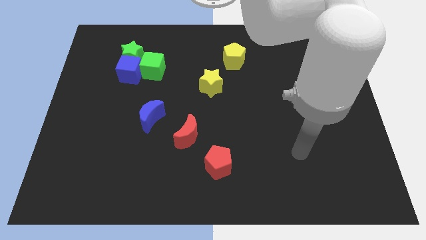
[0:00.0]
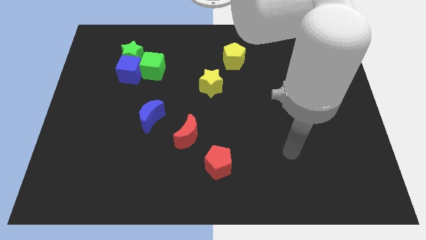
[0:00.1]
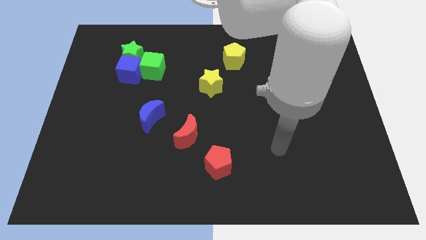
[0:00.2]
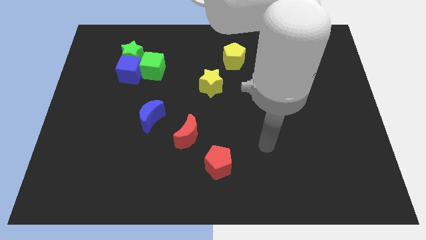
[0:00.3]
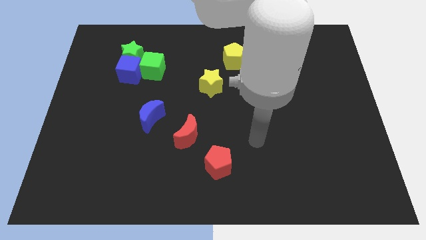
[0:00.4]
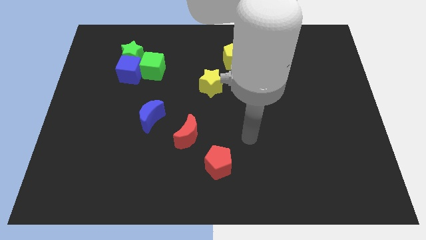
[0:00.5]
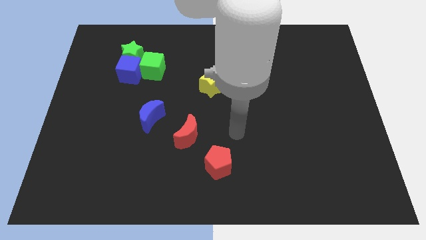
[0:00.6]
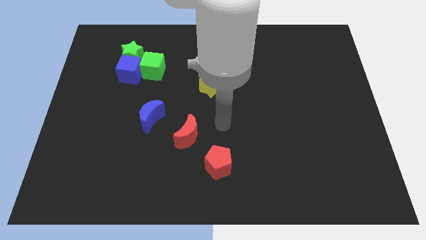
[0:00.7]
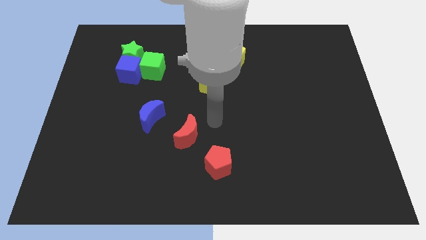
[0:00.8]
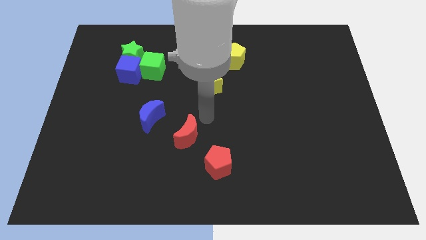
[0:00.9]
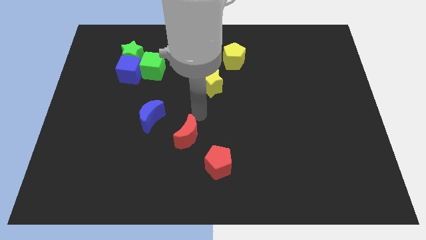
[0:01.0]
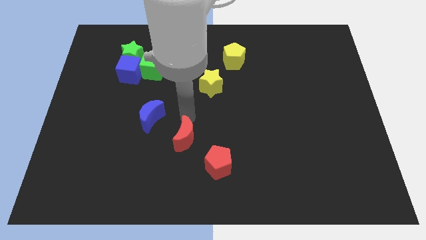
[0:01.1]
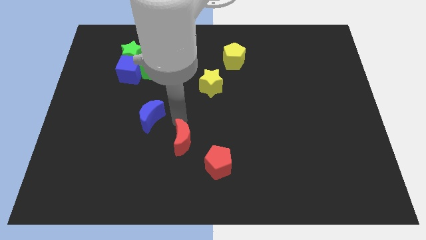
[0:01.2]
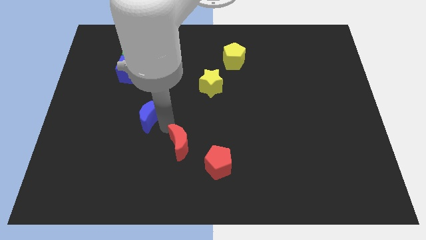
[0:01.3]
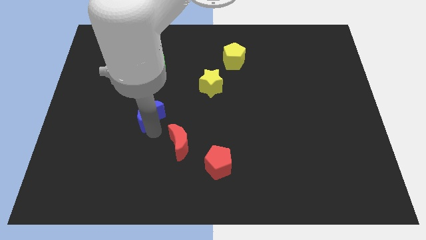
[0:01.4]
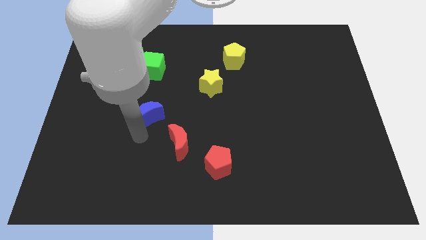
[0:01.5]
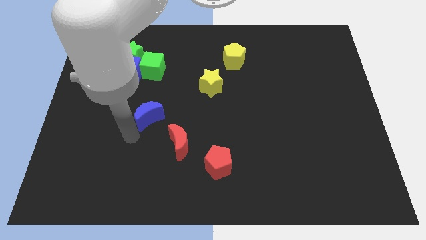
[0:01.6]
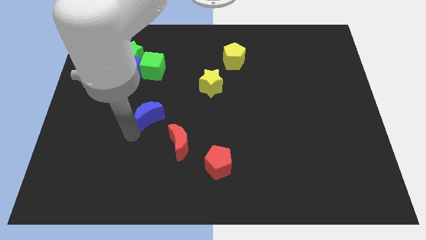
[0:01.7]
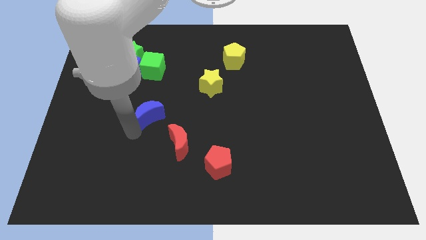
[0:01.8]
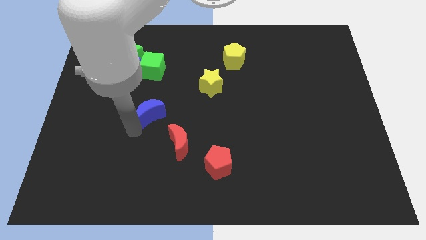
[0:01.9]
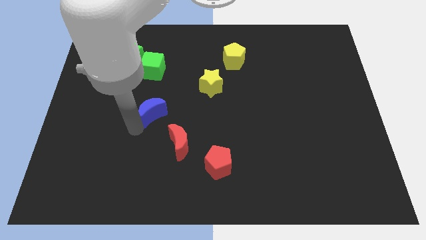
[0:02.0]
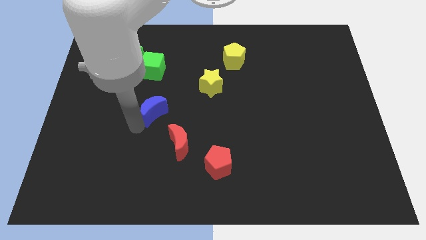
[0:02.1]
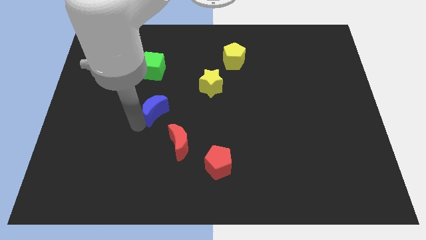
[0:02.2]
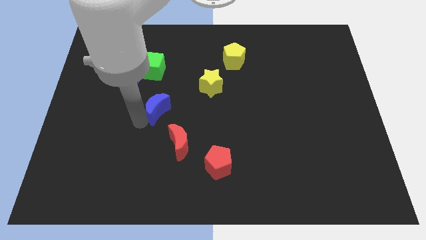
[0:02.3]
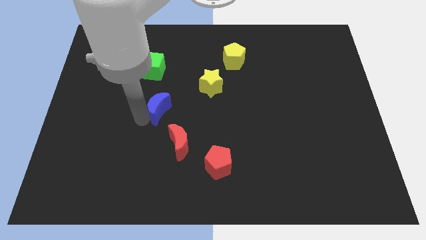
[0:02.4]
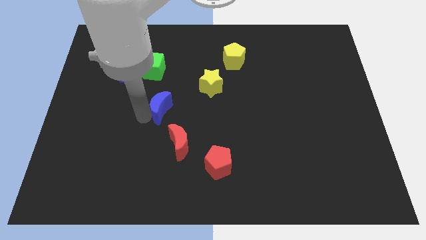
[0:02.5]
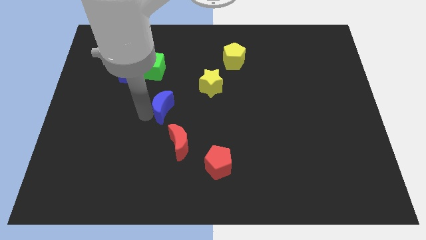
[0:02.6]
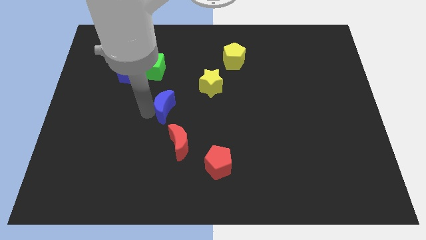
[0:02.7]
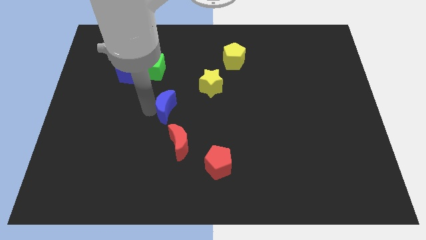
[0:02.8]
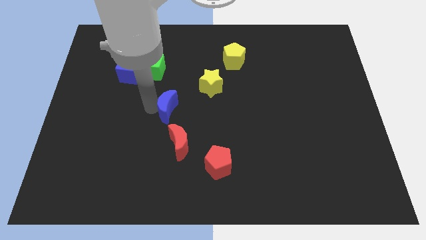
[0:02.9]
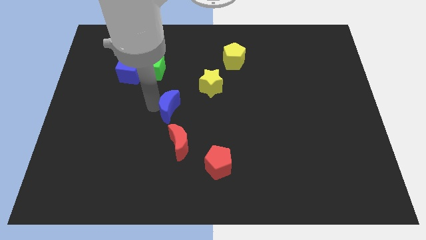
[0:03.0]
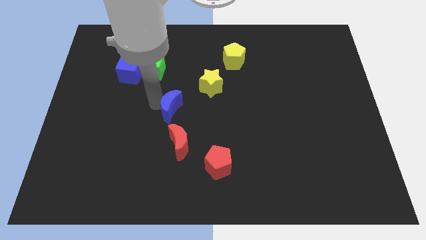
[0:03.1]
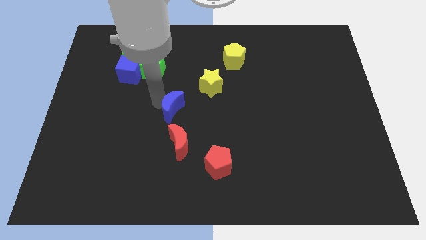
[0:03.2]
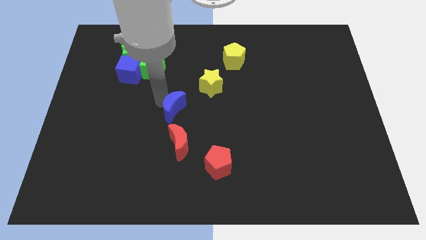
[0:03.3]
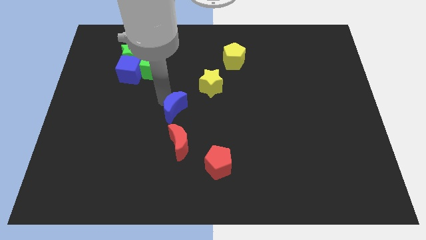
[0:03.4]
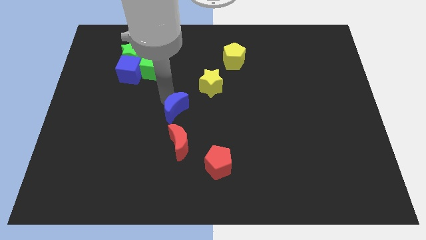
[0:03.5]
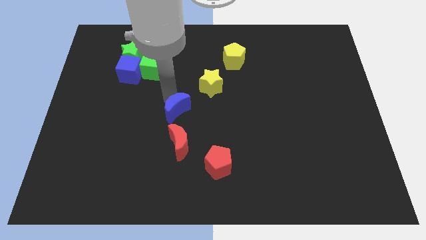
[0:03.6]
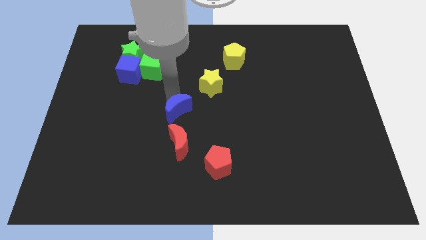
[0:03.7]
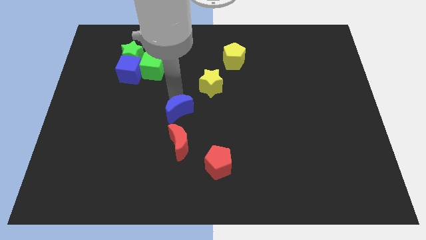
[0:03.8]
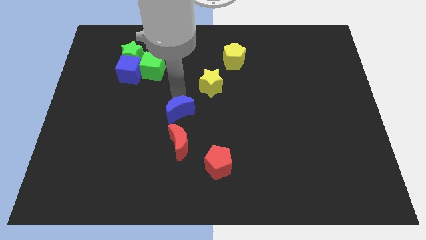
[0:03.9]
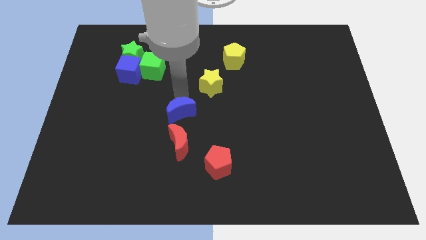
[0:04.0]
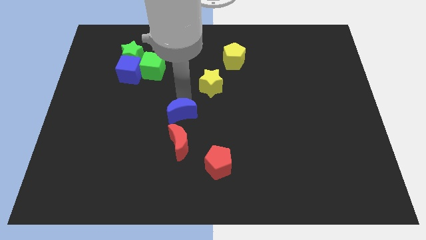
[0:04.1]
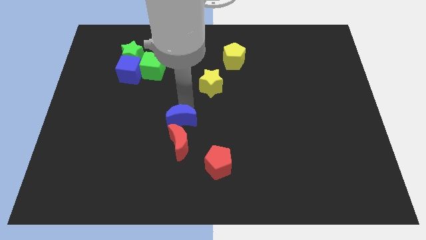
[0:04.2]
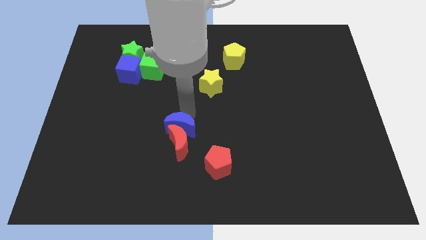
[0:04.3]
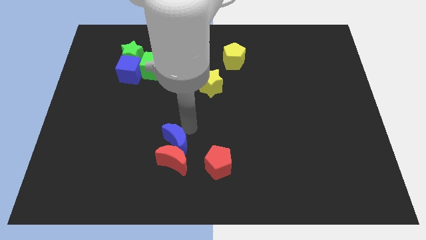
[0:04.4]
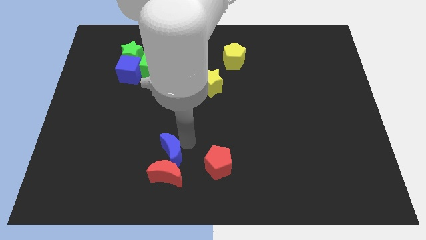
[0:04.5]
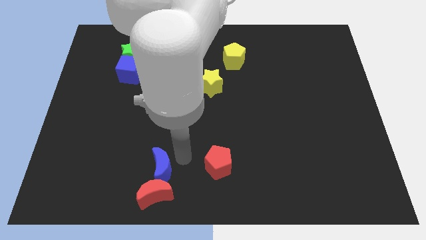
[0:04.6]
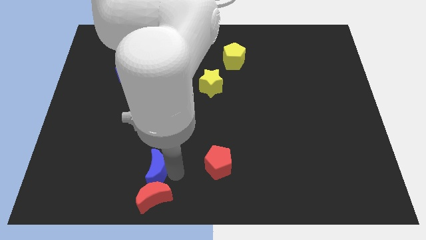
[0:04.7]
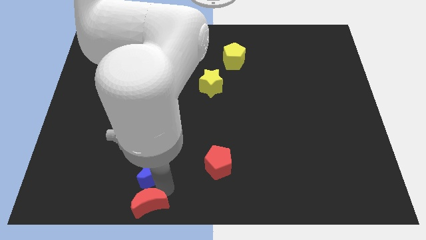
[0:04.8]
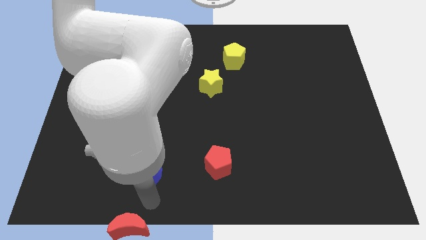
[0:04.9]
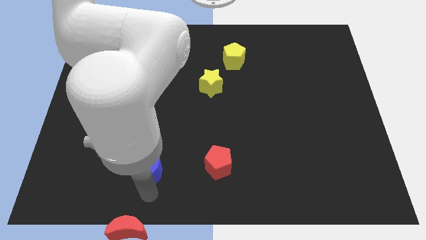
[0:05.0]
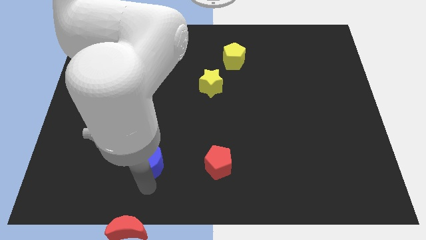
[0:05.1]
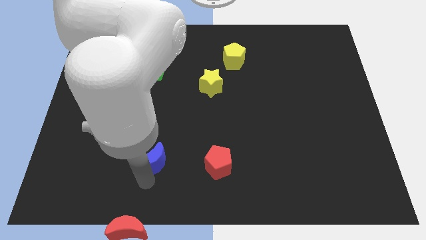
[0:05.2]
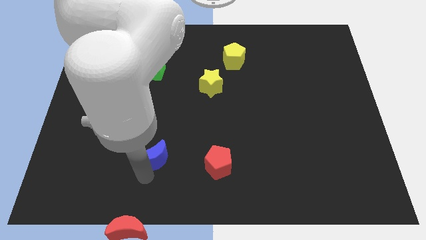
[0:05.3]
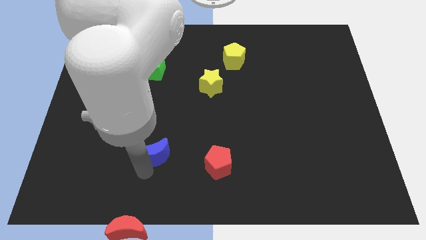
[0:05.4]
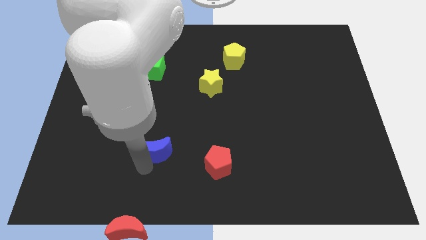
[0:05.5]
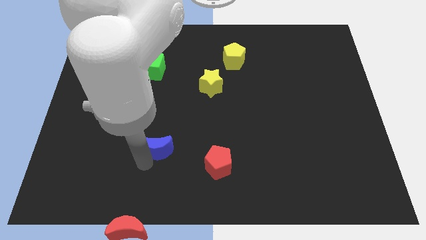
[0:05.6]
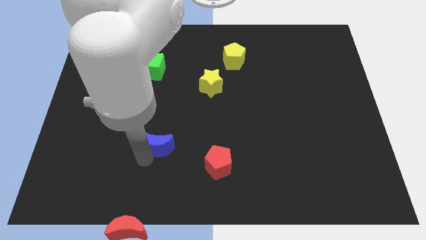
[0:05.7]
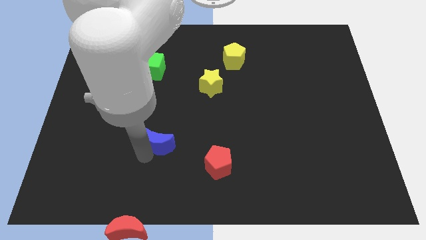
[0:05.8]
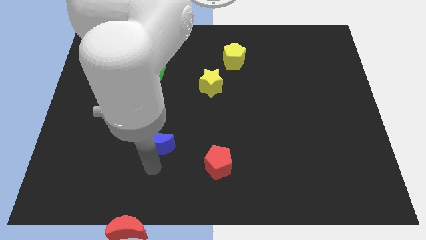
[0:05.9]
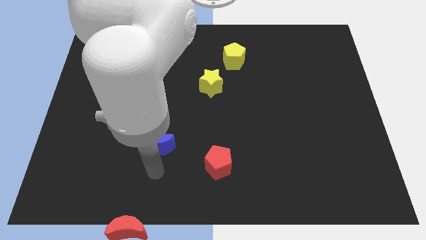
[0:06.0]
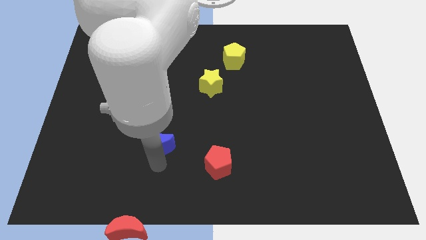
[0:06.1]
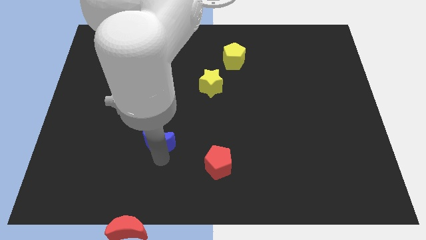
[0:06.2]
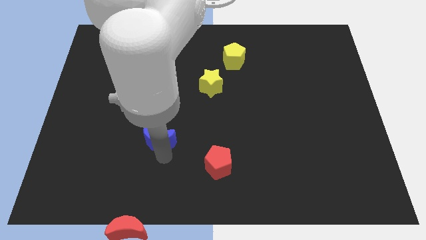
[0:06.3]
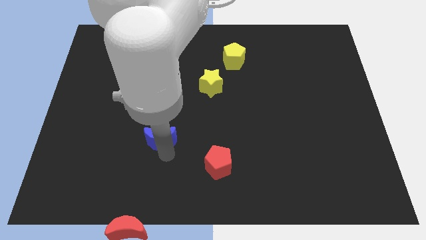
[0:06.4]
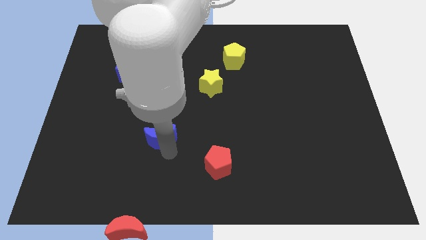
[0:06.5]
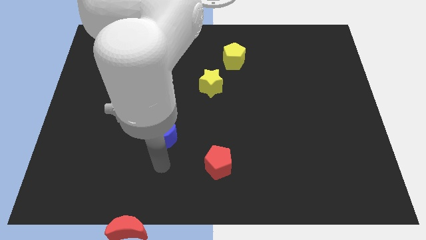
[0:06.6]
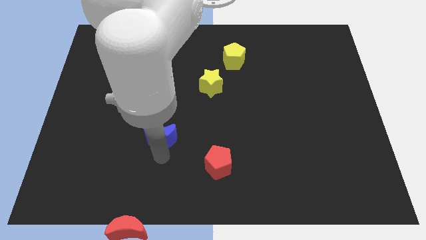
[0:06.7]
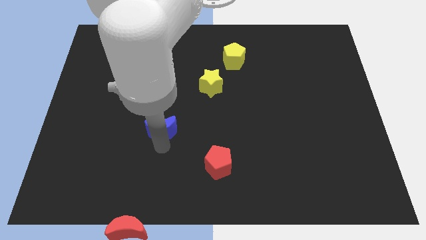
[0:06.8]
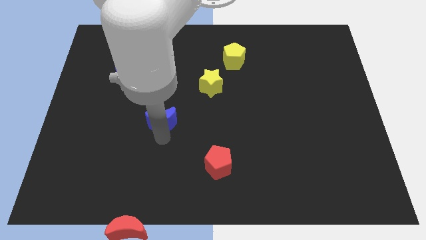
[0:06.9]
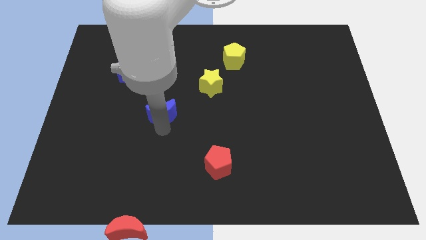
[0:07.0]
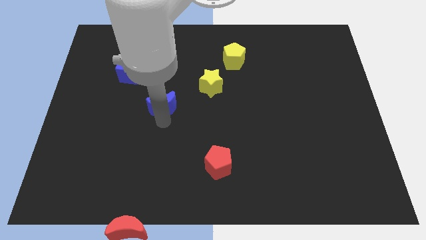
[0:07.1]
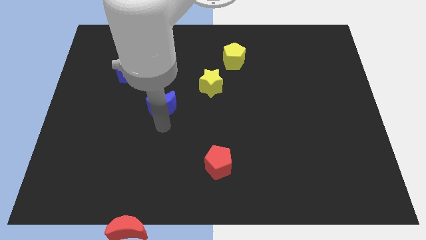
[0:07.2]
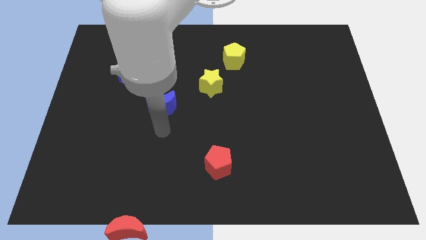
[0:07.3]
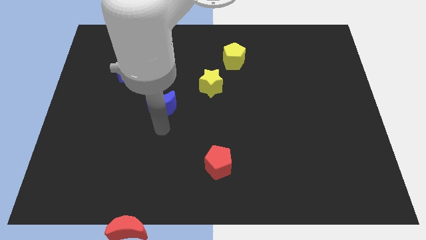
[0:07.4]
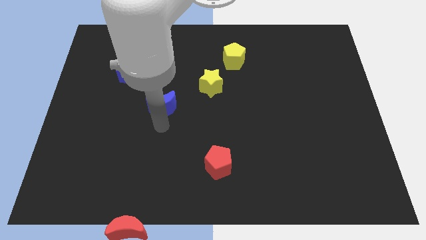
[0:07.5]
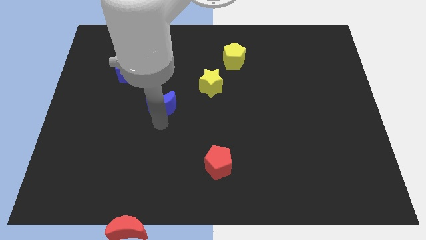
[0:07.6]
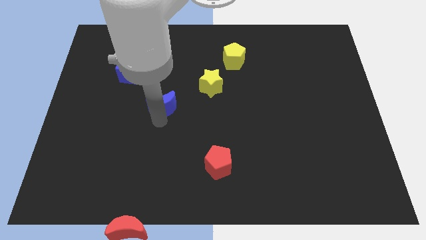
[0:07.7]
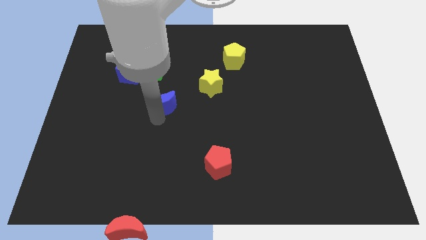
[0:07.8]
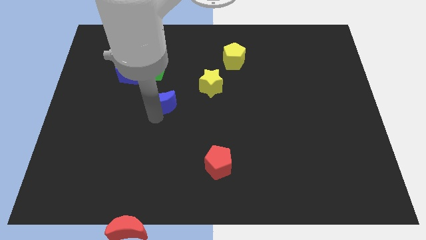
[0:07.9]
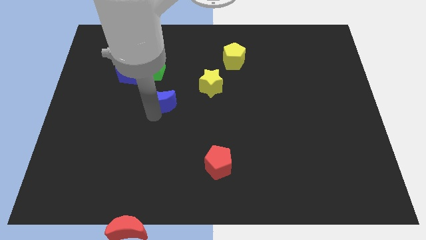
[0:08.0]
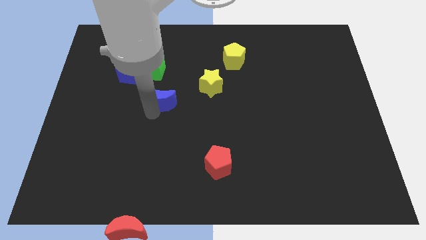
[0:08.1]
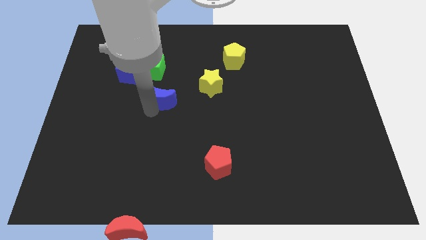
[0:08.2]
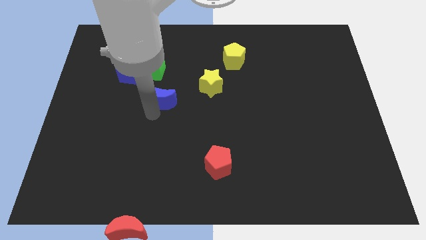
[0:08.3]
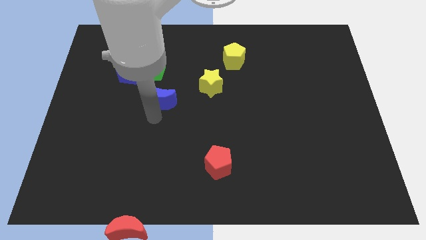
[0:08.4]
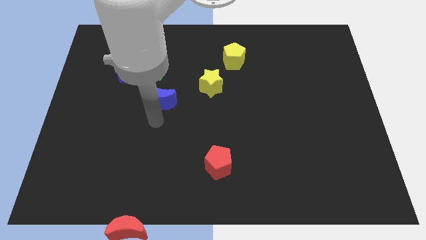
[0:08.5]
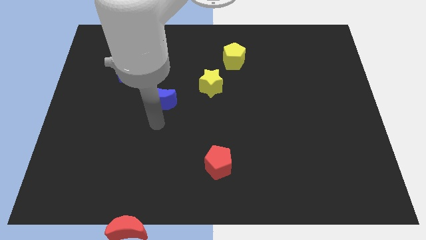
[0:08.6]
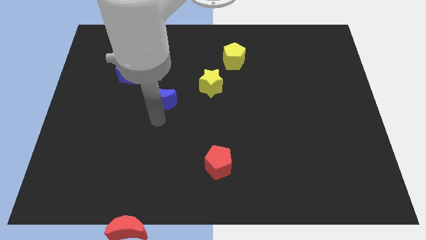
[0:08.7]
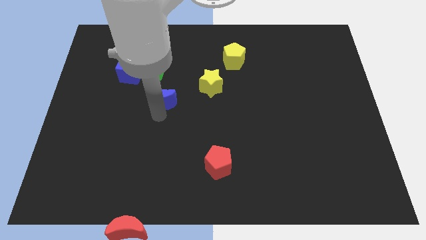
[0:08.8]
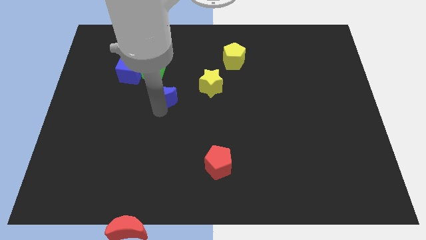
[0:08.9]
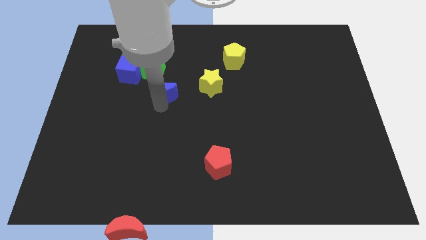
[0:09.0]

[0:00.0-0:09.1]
slide the blue moon a little bit up
